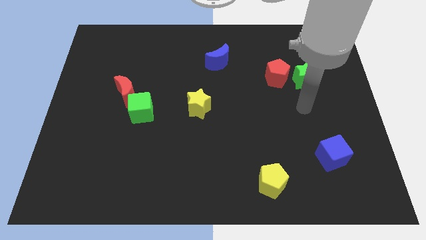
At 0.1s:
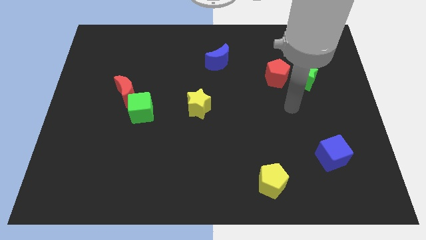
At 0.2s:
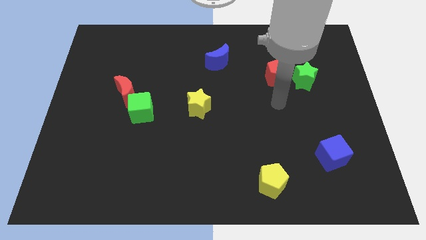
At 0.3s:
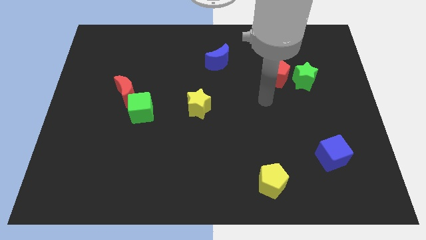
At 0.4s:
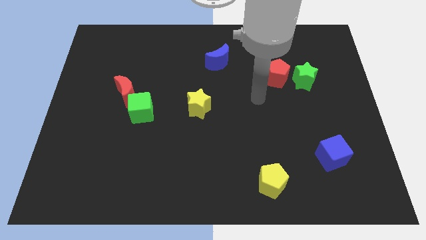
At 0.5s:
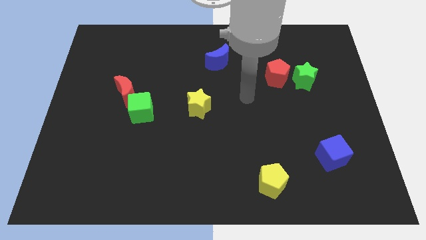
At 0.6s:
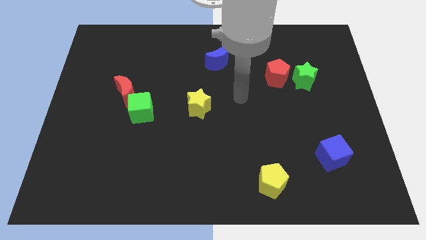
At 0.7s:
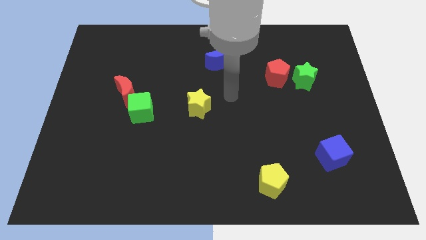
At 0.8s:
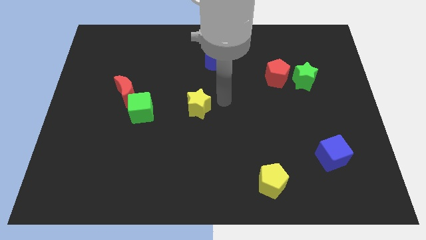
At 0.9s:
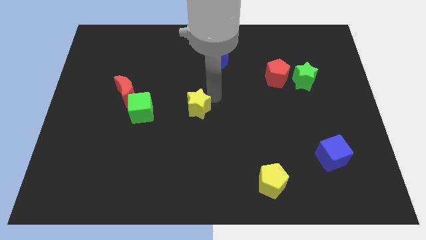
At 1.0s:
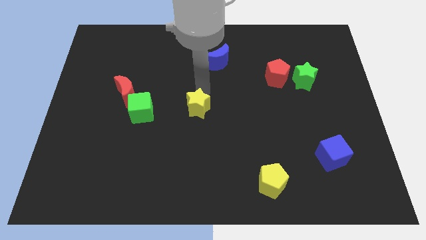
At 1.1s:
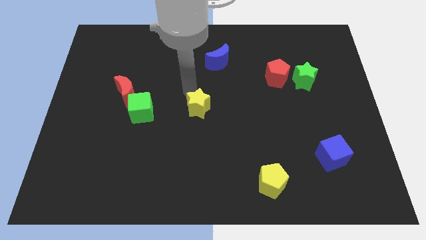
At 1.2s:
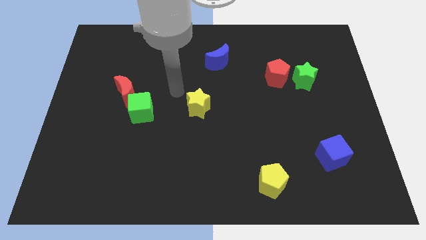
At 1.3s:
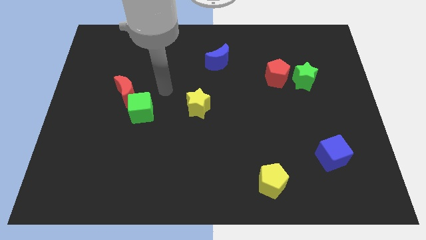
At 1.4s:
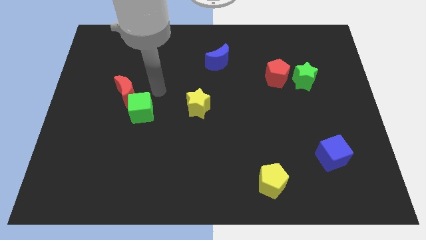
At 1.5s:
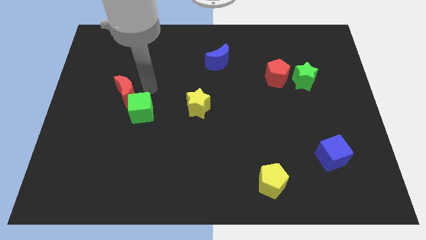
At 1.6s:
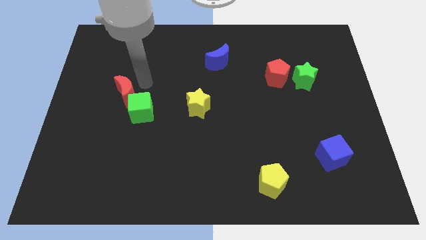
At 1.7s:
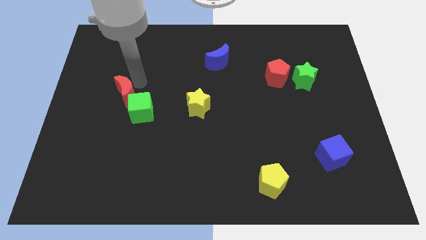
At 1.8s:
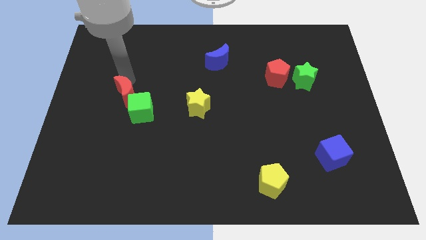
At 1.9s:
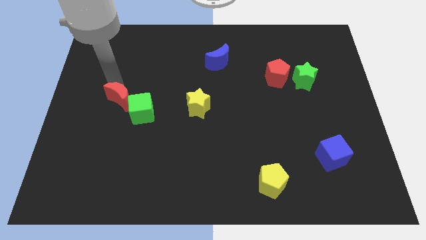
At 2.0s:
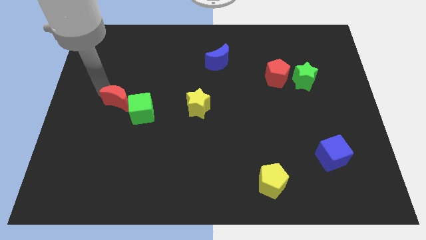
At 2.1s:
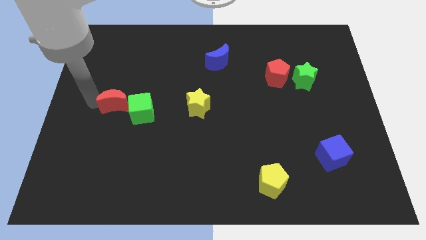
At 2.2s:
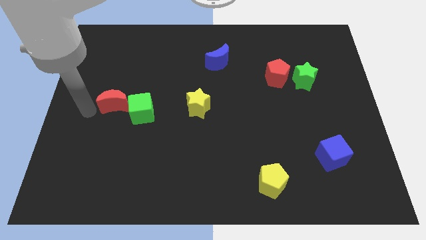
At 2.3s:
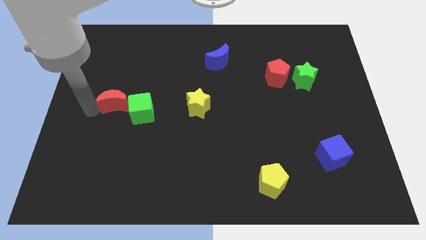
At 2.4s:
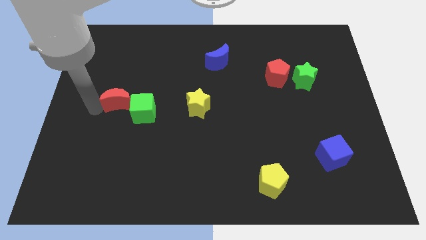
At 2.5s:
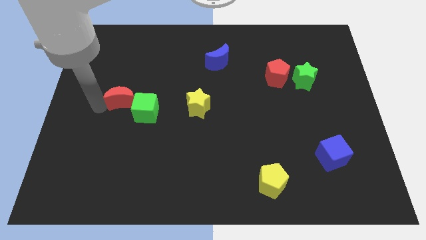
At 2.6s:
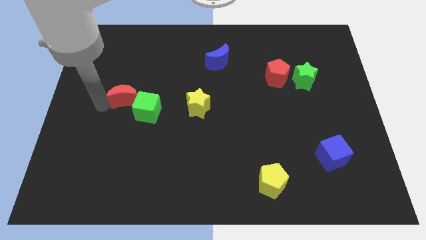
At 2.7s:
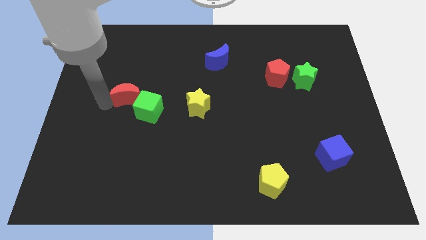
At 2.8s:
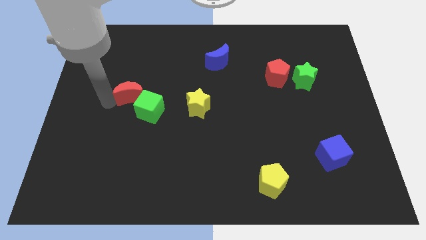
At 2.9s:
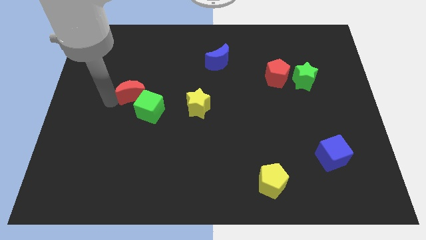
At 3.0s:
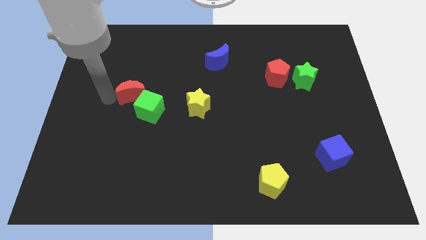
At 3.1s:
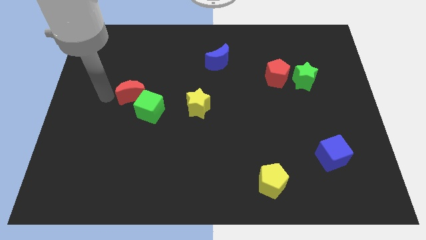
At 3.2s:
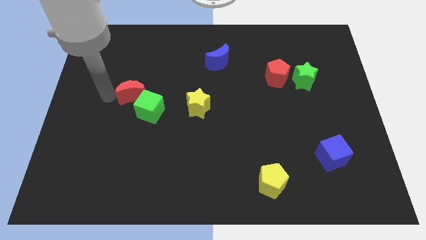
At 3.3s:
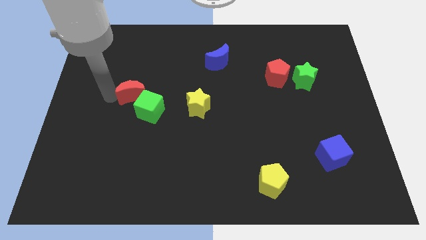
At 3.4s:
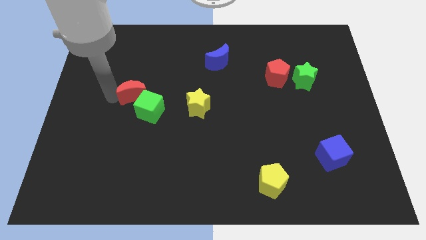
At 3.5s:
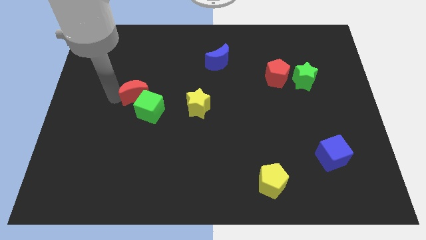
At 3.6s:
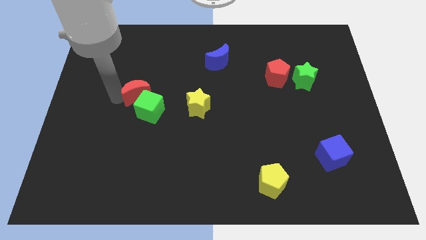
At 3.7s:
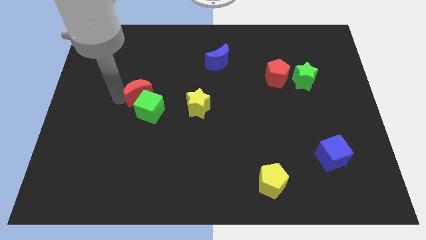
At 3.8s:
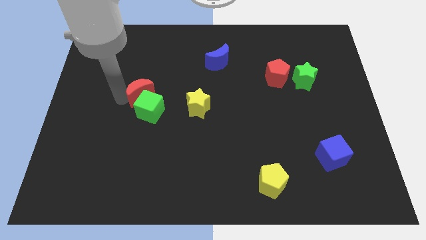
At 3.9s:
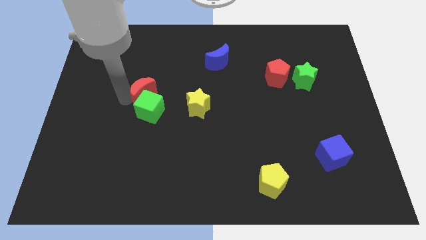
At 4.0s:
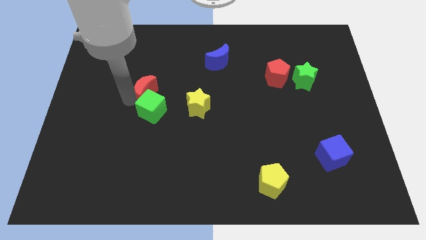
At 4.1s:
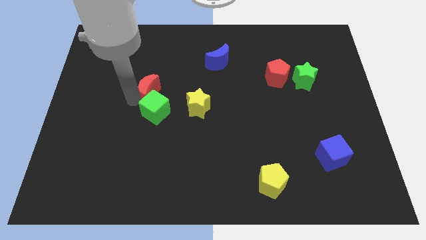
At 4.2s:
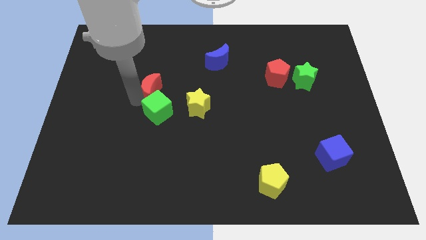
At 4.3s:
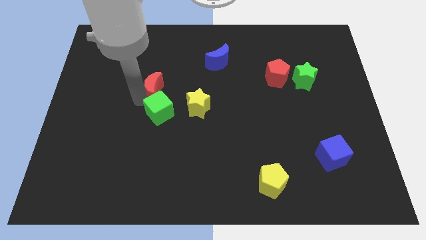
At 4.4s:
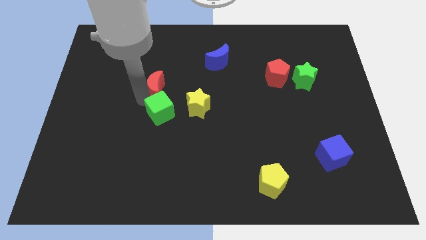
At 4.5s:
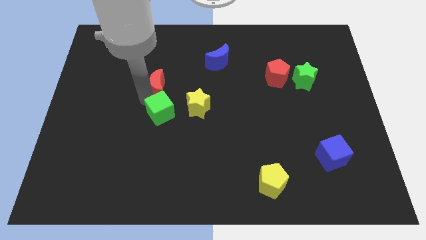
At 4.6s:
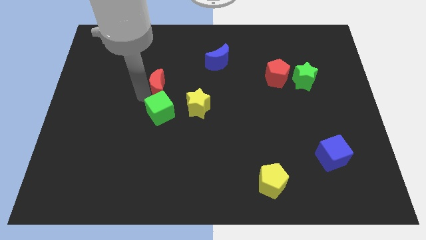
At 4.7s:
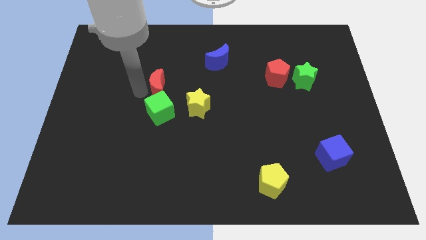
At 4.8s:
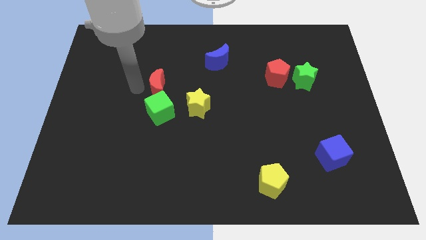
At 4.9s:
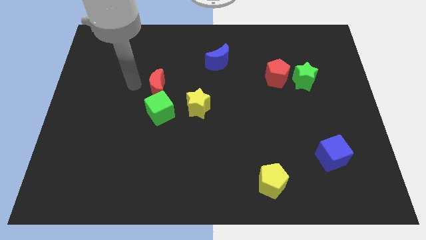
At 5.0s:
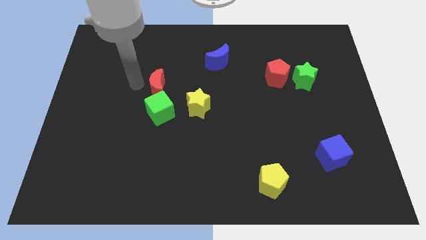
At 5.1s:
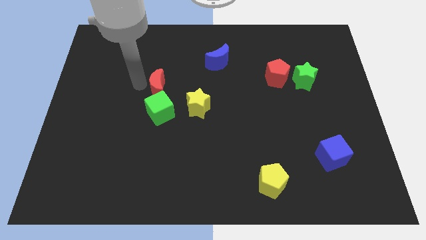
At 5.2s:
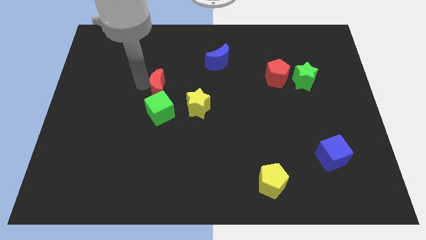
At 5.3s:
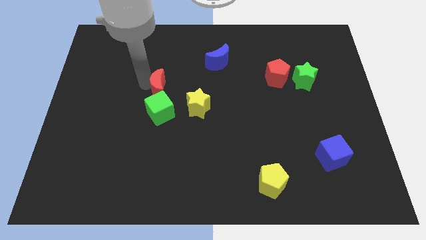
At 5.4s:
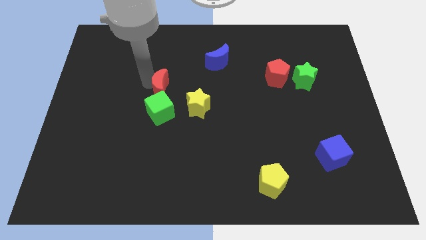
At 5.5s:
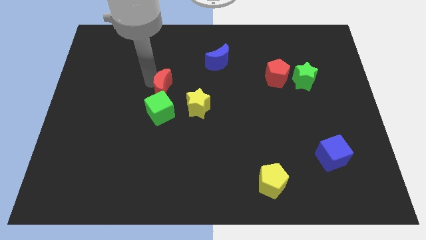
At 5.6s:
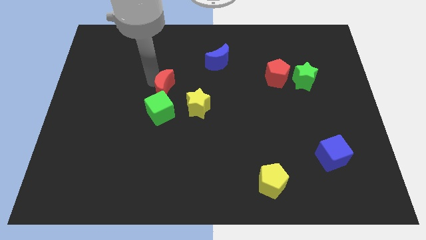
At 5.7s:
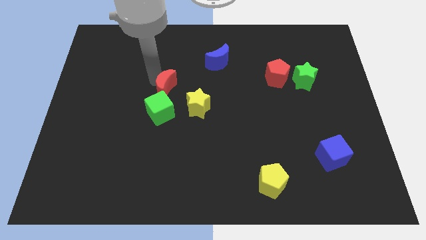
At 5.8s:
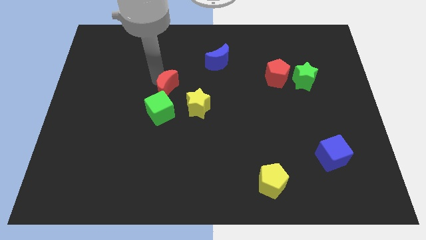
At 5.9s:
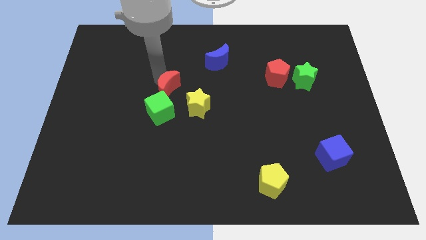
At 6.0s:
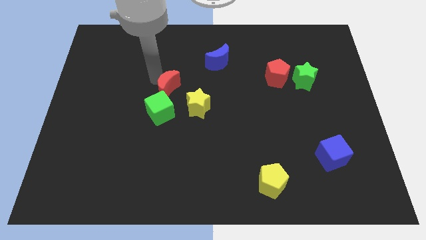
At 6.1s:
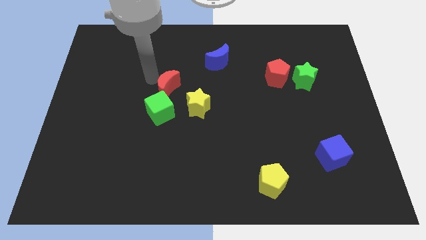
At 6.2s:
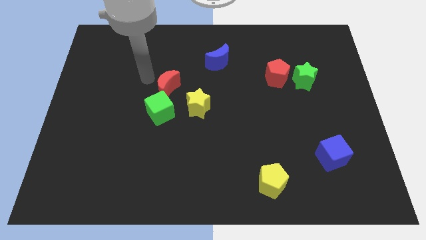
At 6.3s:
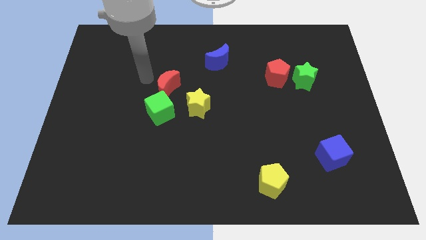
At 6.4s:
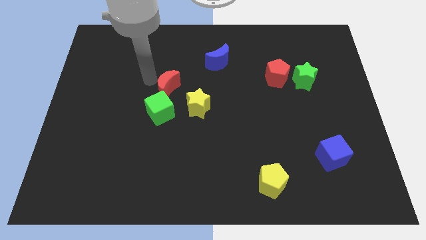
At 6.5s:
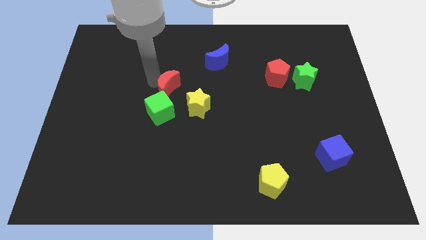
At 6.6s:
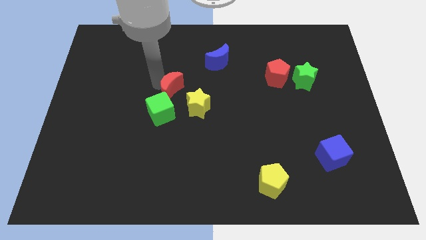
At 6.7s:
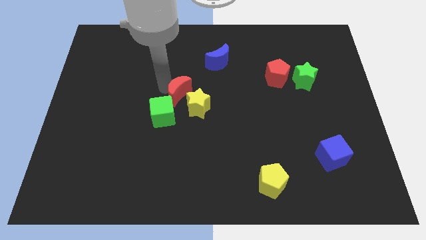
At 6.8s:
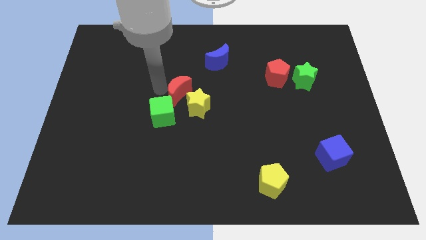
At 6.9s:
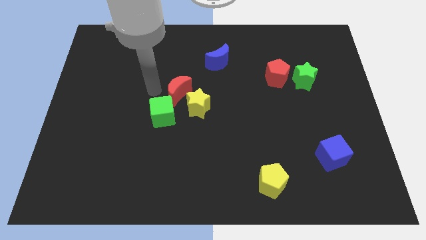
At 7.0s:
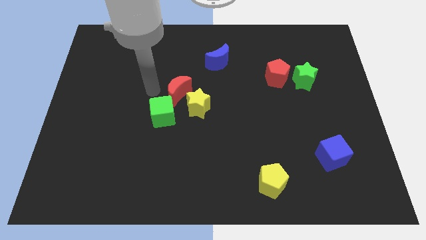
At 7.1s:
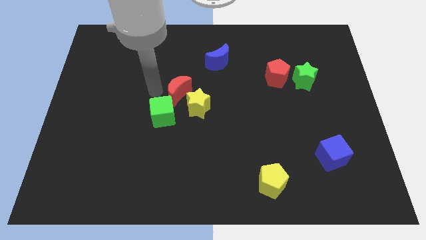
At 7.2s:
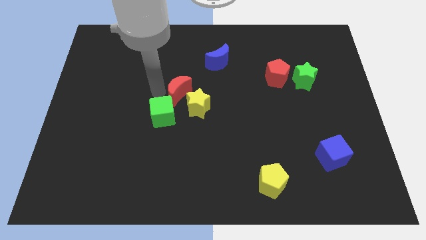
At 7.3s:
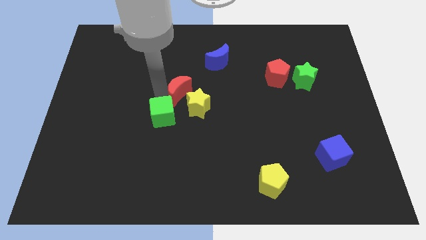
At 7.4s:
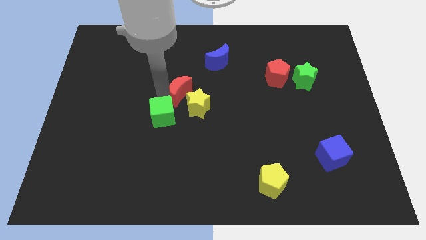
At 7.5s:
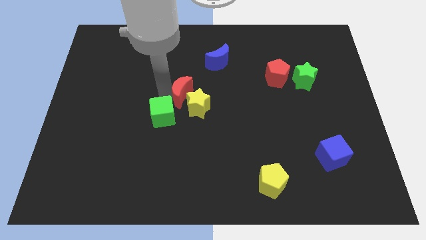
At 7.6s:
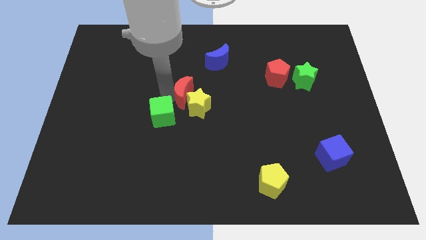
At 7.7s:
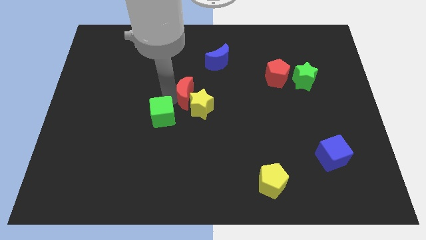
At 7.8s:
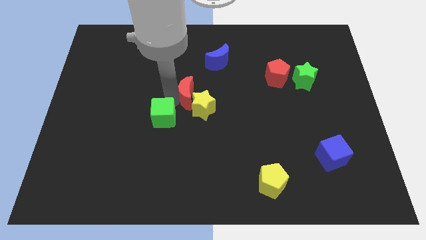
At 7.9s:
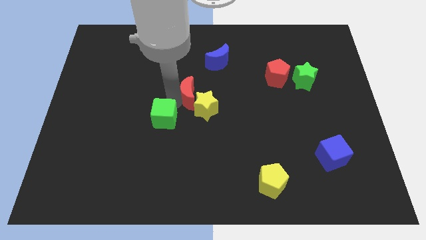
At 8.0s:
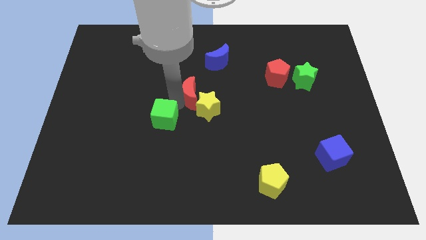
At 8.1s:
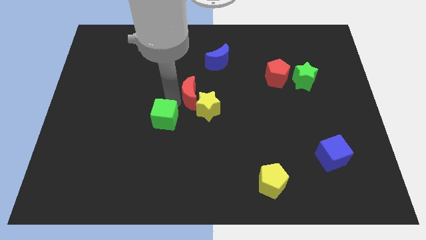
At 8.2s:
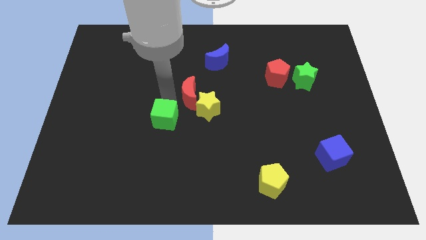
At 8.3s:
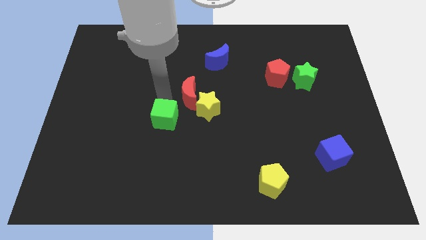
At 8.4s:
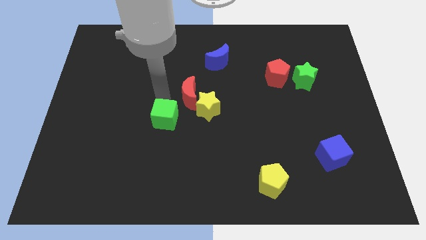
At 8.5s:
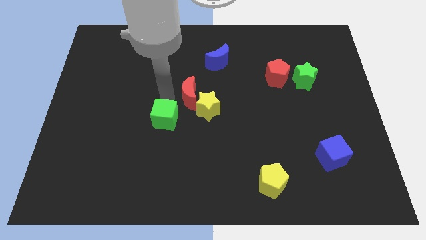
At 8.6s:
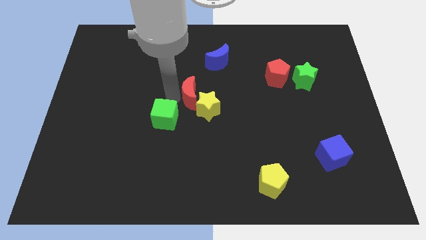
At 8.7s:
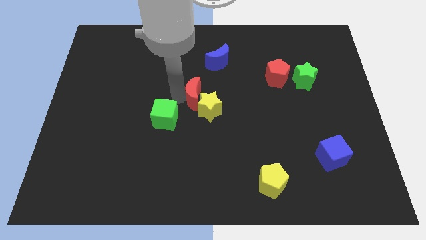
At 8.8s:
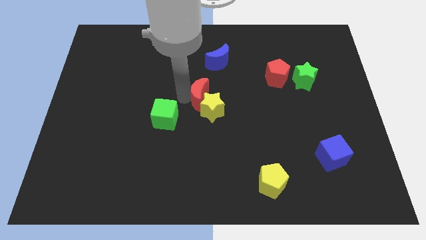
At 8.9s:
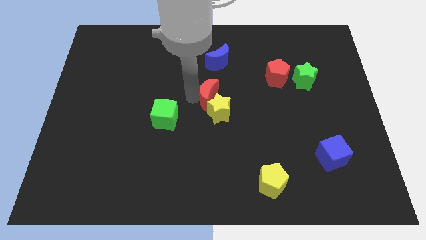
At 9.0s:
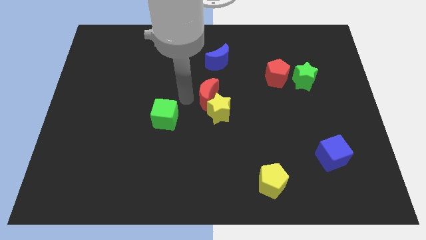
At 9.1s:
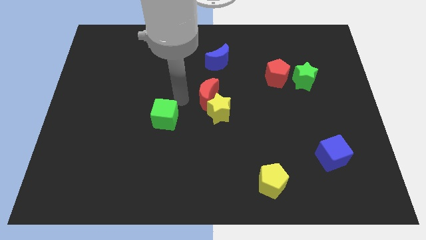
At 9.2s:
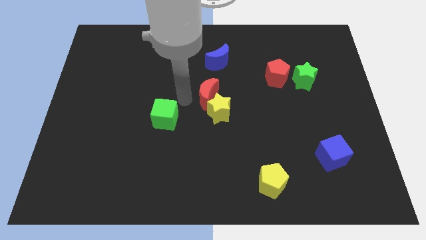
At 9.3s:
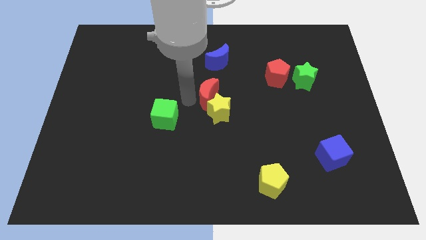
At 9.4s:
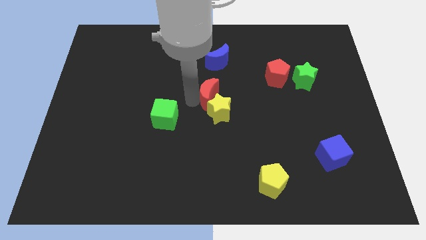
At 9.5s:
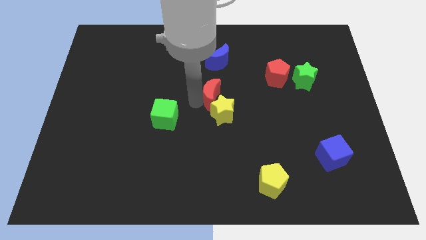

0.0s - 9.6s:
push the red moon right
